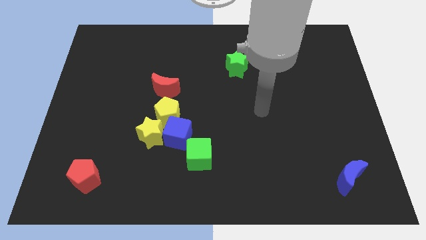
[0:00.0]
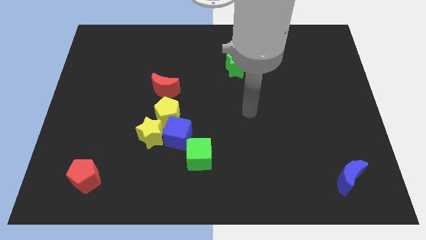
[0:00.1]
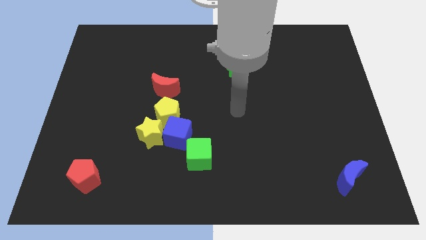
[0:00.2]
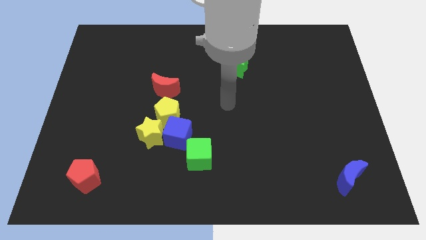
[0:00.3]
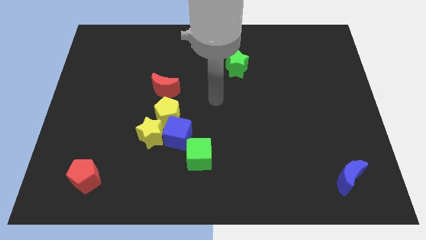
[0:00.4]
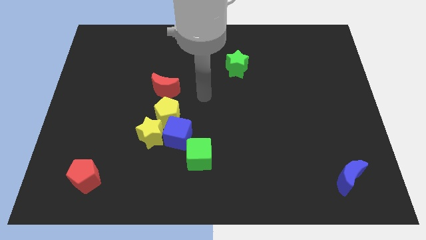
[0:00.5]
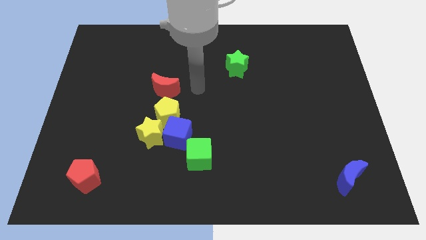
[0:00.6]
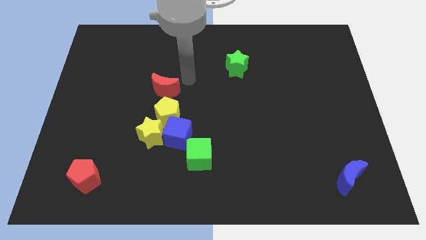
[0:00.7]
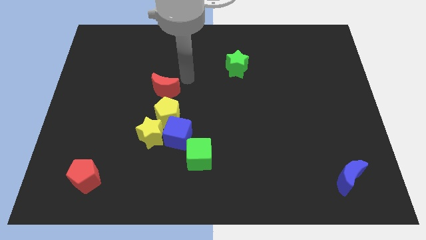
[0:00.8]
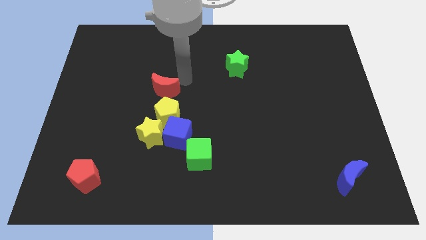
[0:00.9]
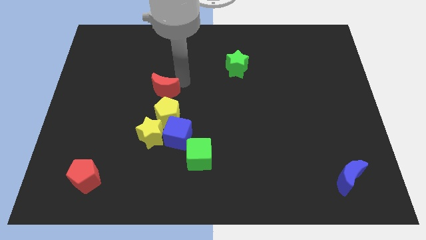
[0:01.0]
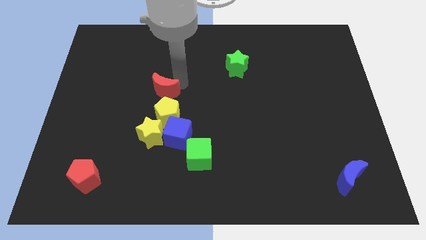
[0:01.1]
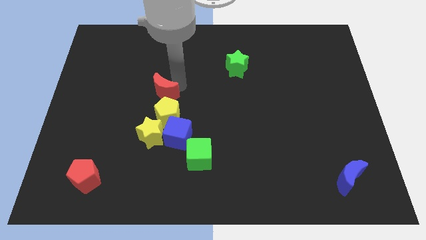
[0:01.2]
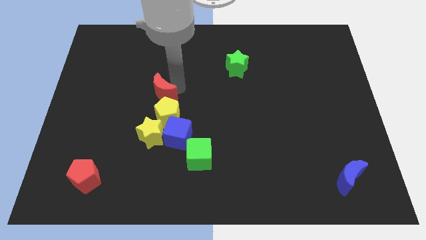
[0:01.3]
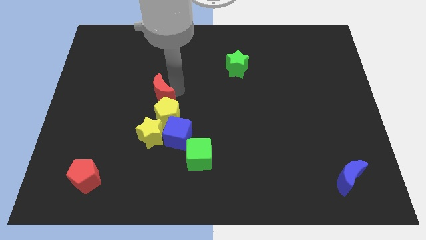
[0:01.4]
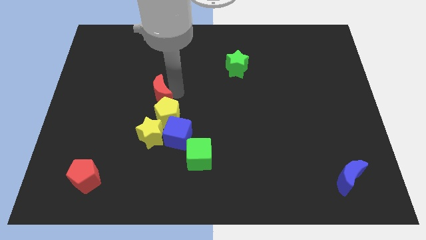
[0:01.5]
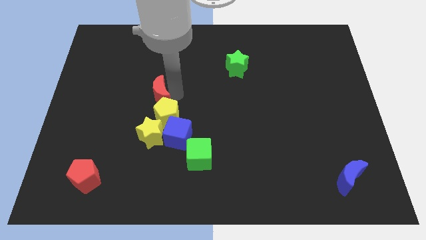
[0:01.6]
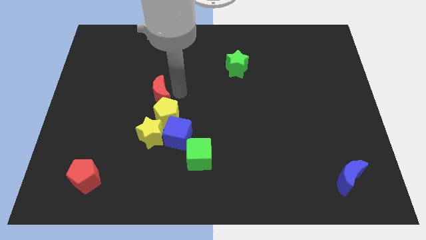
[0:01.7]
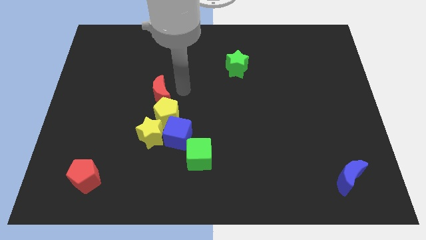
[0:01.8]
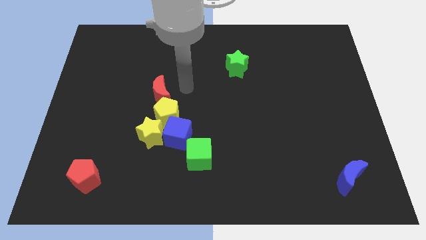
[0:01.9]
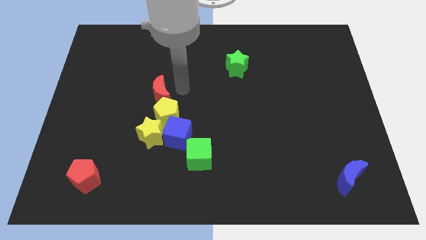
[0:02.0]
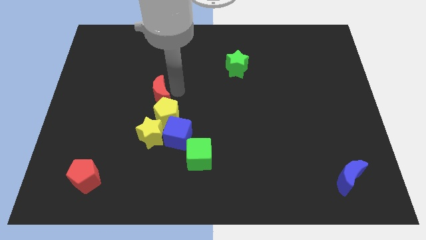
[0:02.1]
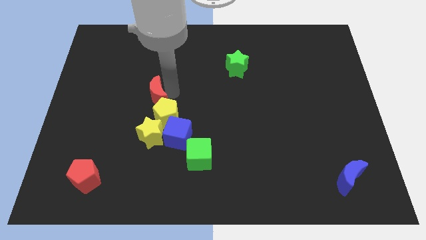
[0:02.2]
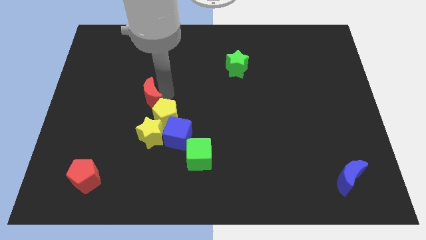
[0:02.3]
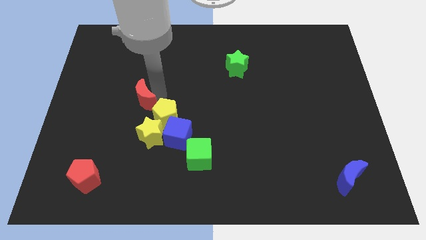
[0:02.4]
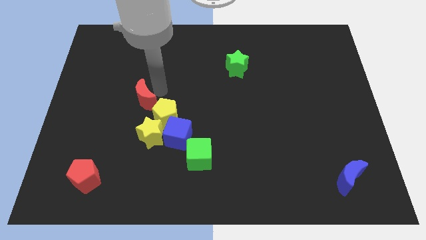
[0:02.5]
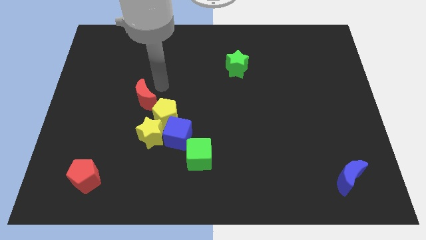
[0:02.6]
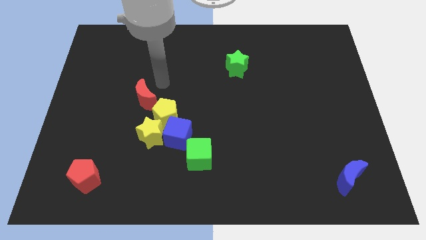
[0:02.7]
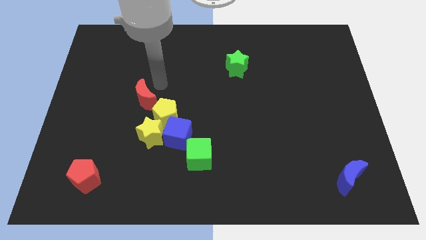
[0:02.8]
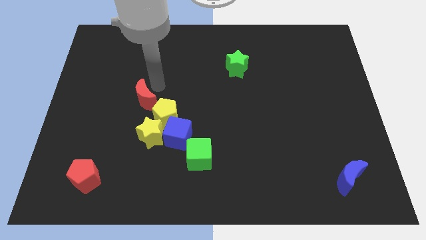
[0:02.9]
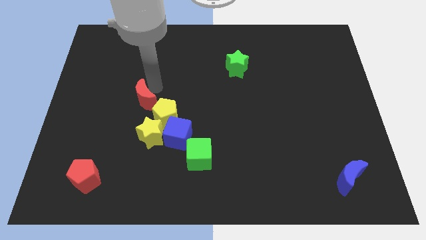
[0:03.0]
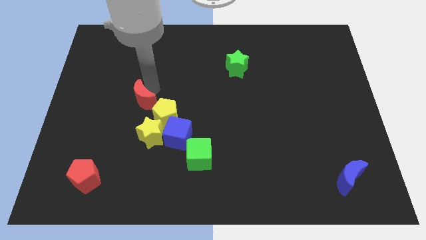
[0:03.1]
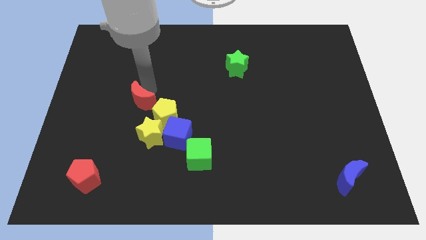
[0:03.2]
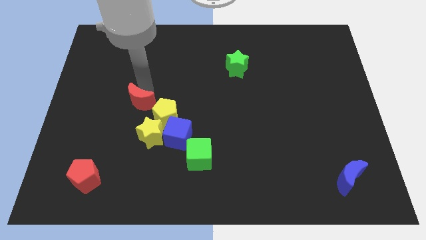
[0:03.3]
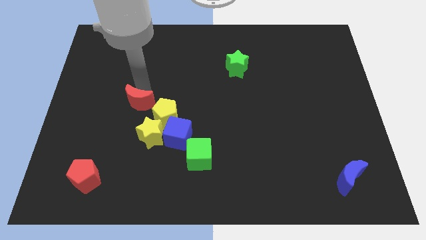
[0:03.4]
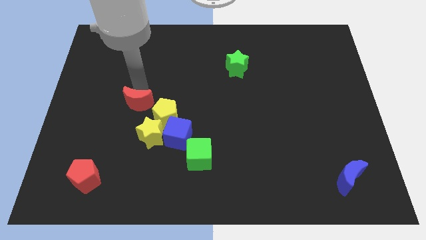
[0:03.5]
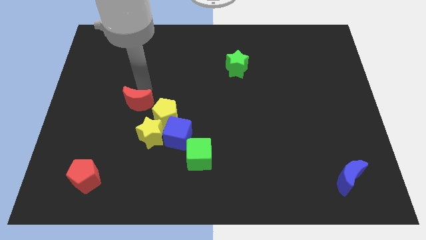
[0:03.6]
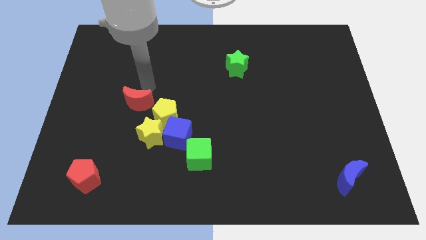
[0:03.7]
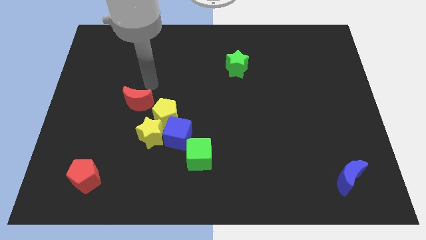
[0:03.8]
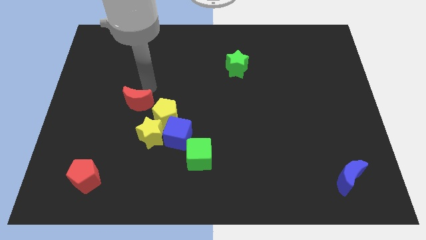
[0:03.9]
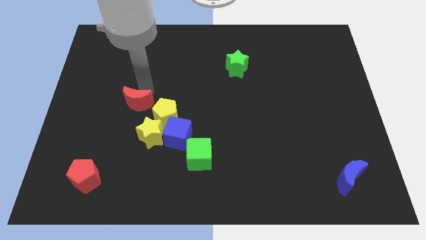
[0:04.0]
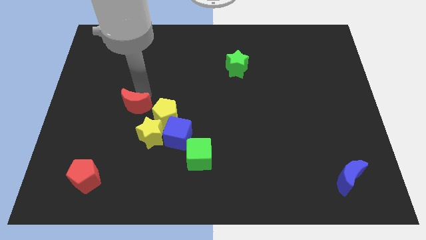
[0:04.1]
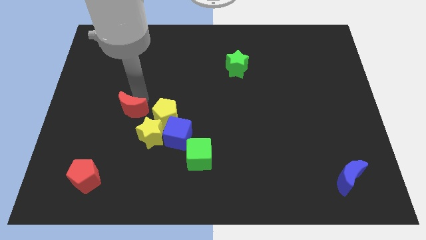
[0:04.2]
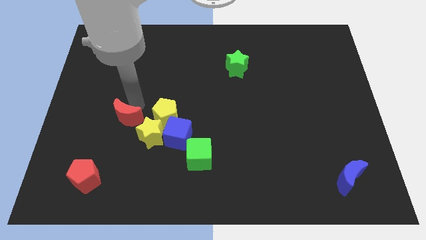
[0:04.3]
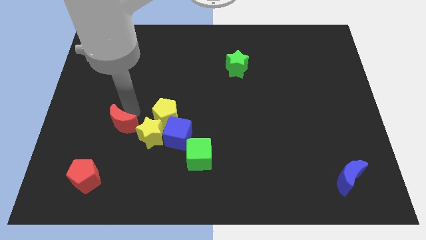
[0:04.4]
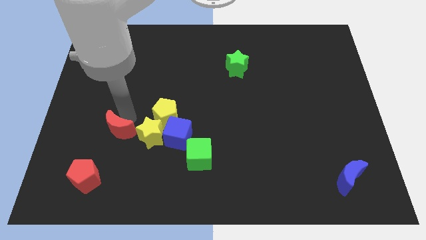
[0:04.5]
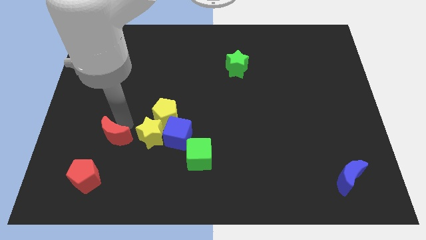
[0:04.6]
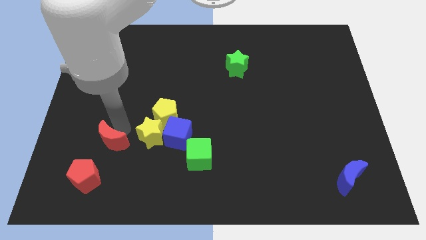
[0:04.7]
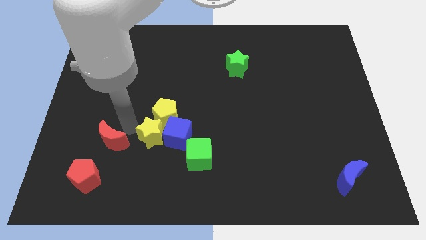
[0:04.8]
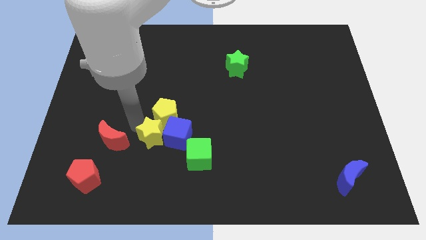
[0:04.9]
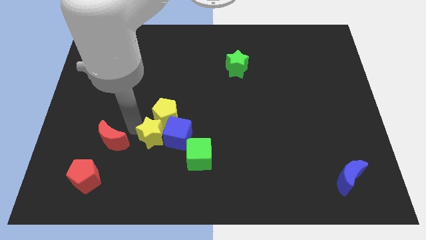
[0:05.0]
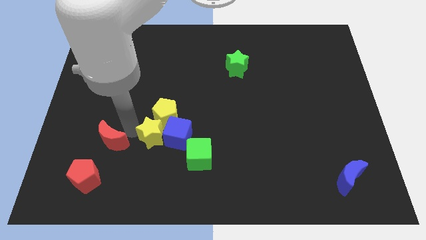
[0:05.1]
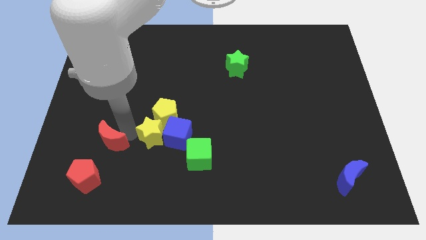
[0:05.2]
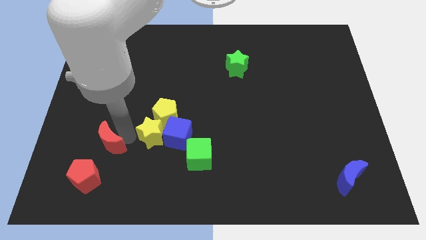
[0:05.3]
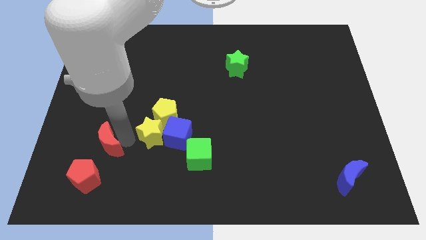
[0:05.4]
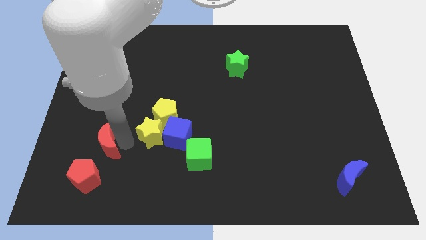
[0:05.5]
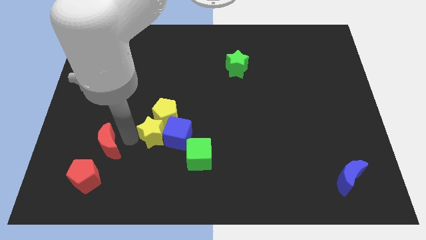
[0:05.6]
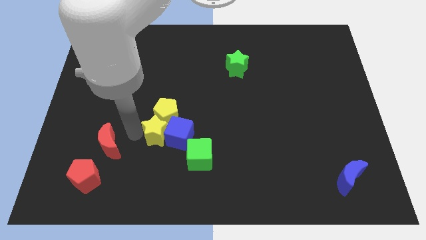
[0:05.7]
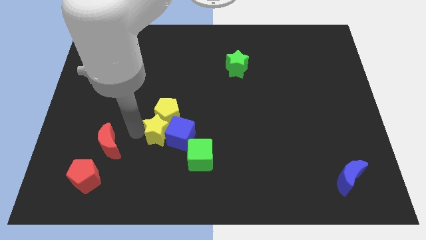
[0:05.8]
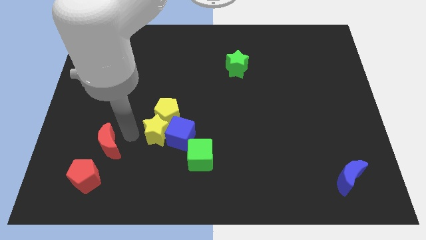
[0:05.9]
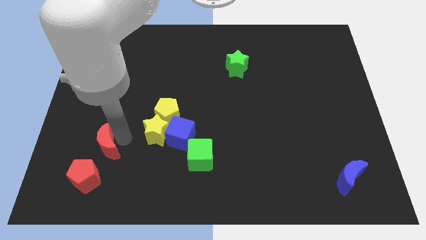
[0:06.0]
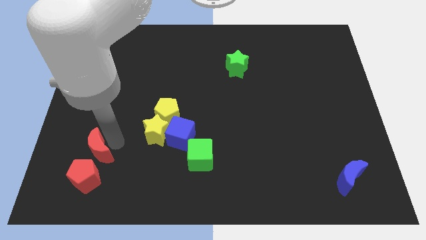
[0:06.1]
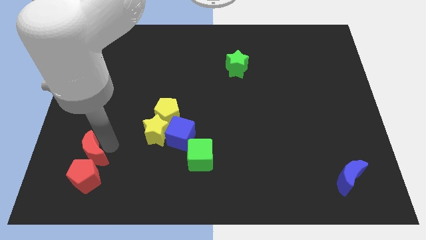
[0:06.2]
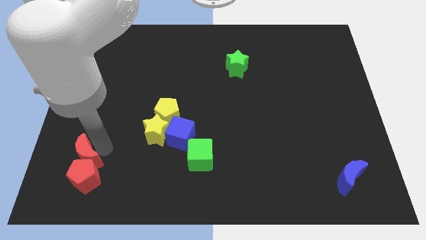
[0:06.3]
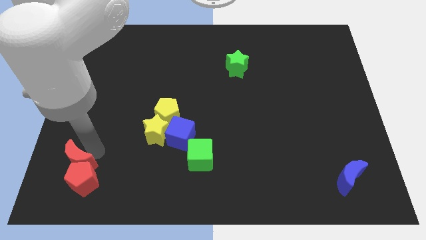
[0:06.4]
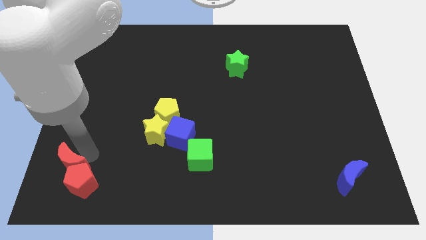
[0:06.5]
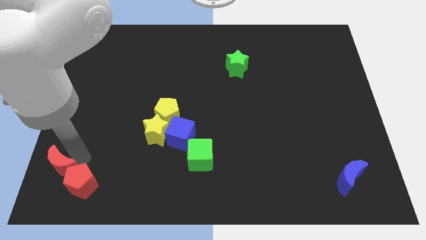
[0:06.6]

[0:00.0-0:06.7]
push the red moon to the bottom left of the board
